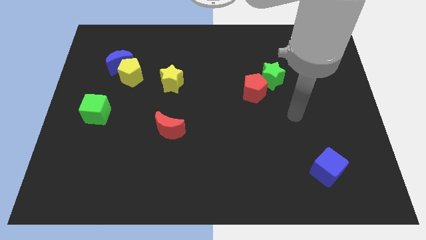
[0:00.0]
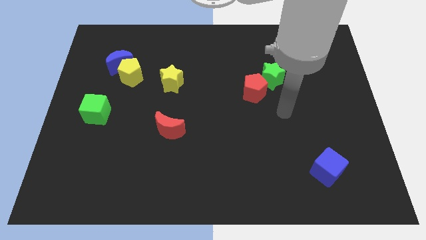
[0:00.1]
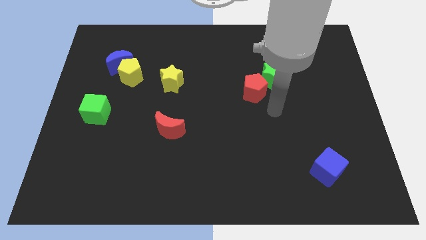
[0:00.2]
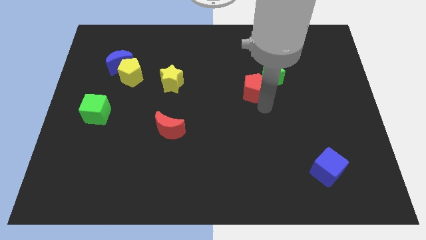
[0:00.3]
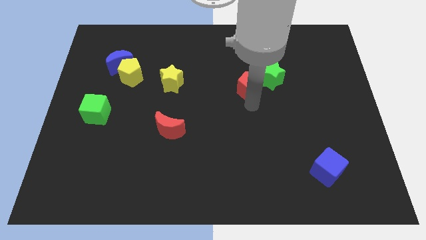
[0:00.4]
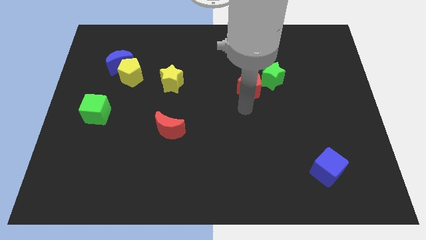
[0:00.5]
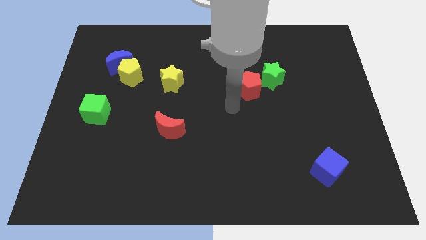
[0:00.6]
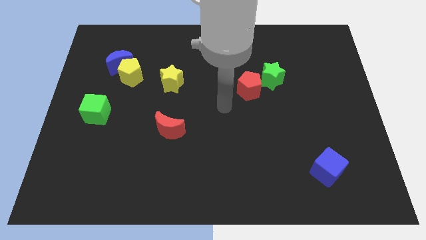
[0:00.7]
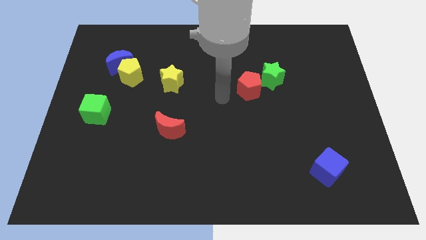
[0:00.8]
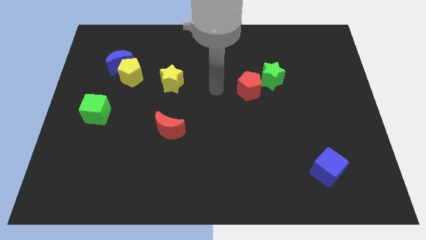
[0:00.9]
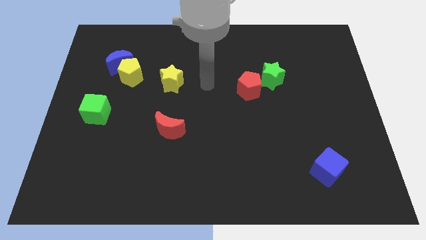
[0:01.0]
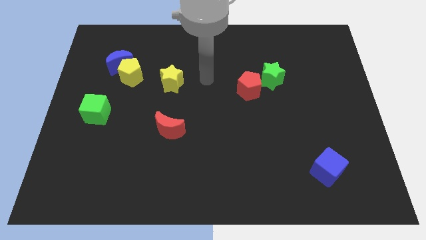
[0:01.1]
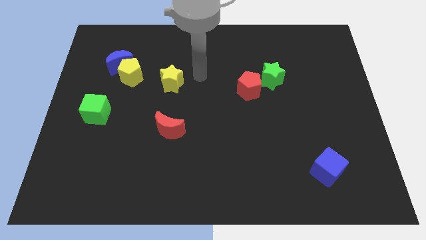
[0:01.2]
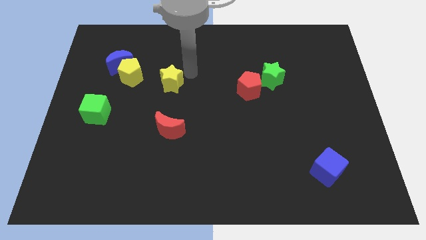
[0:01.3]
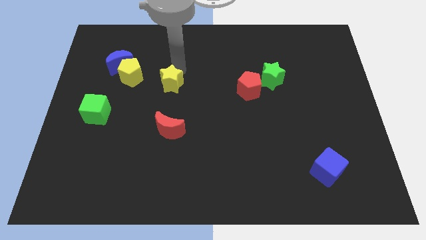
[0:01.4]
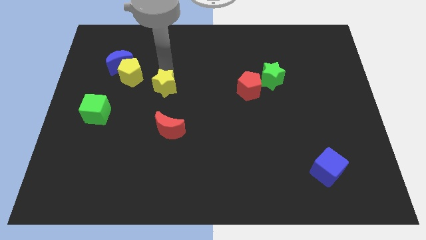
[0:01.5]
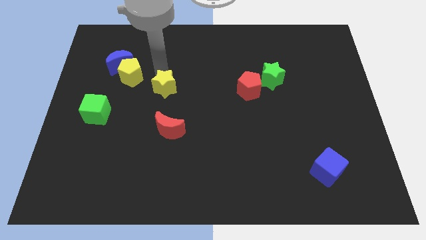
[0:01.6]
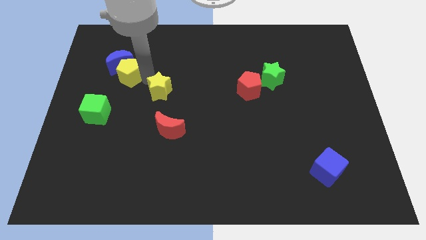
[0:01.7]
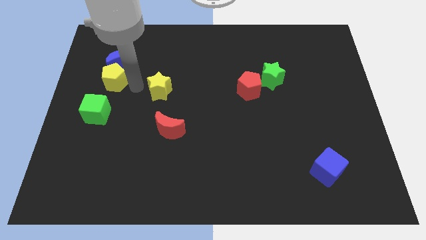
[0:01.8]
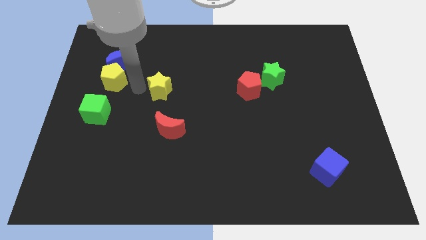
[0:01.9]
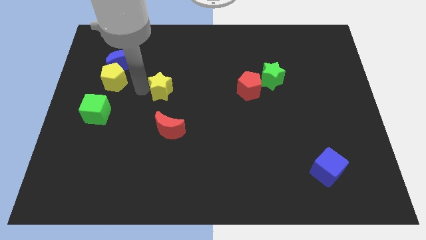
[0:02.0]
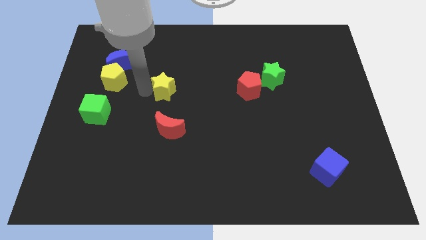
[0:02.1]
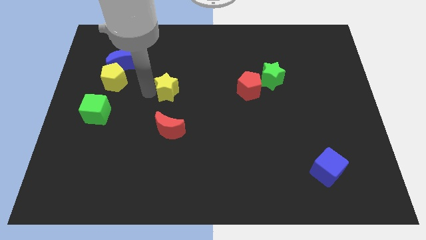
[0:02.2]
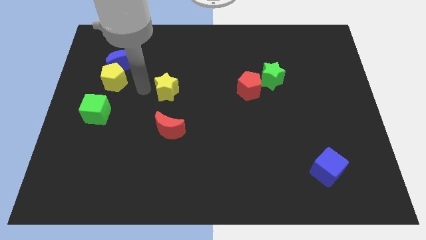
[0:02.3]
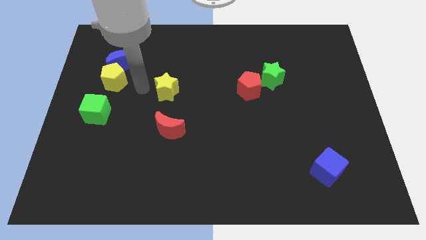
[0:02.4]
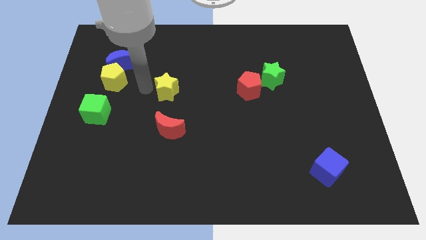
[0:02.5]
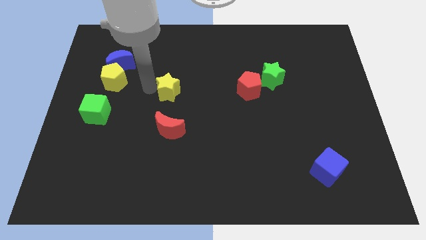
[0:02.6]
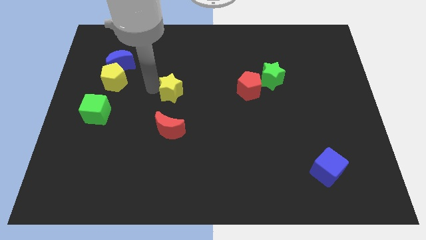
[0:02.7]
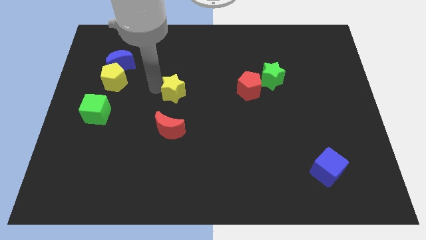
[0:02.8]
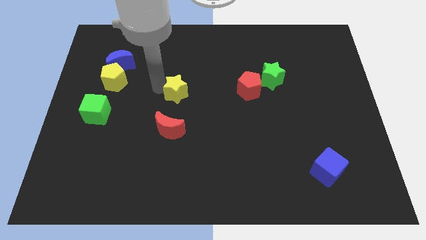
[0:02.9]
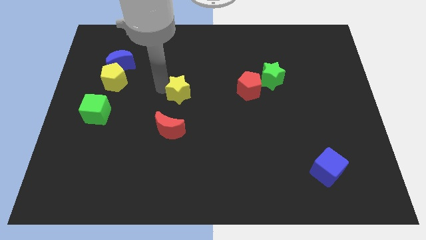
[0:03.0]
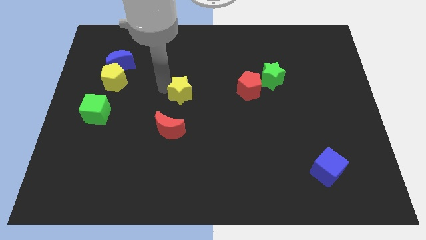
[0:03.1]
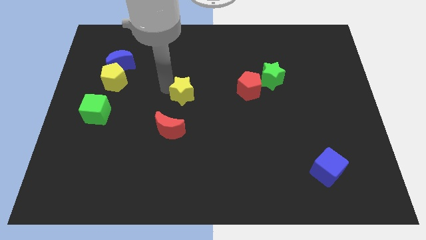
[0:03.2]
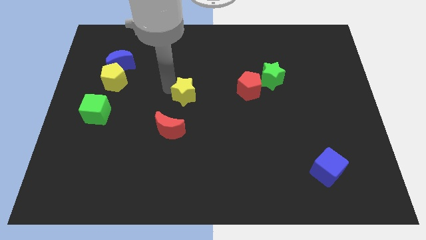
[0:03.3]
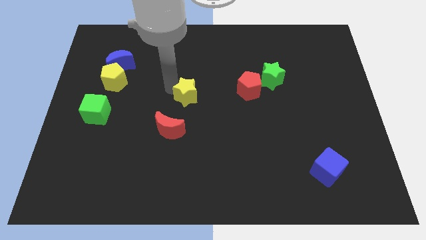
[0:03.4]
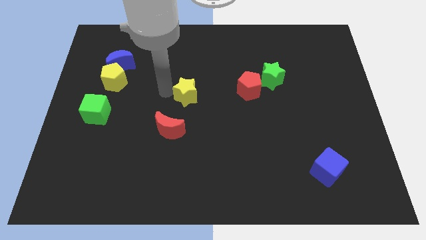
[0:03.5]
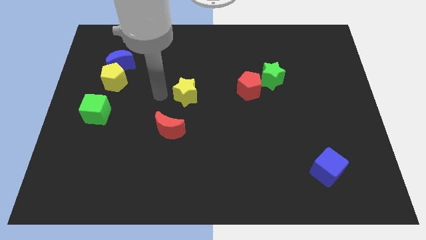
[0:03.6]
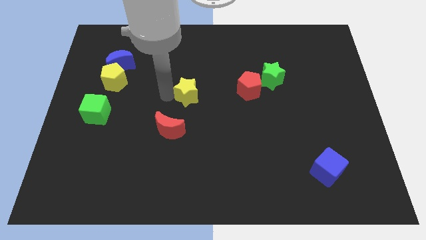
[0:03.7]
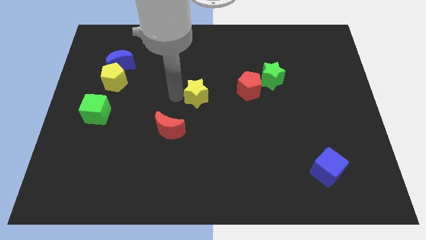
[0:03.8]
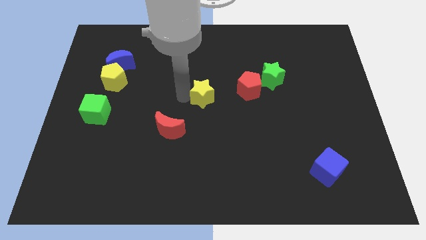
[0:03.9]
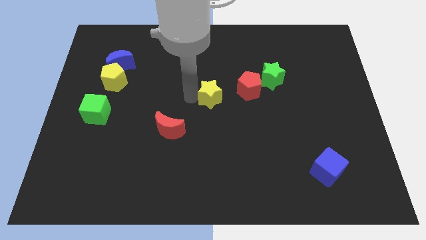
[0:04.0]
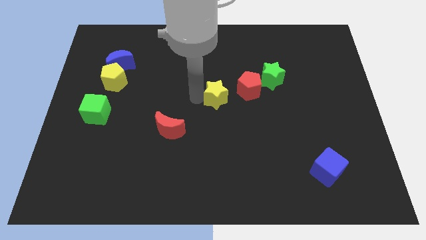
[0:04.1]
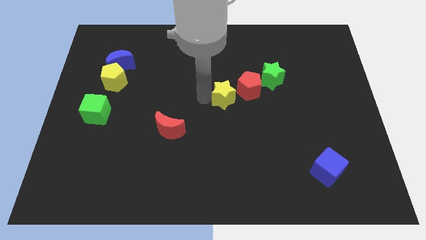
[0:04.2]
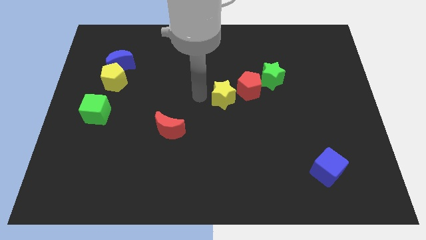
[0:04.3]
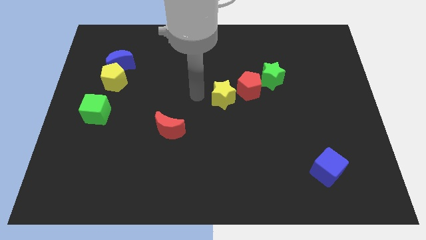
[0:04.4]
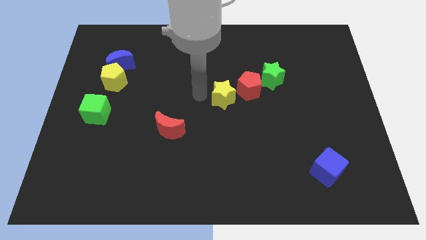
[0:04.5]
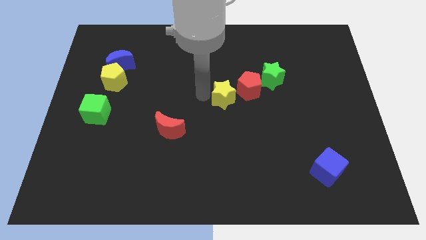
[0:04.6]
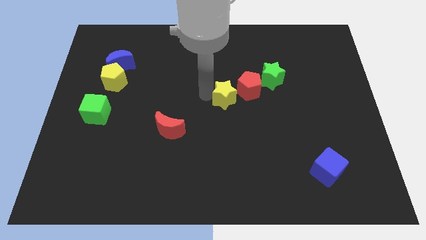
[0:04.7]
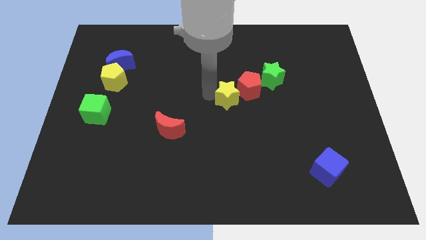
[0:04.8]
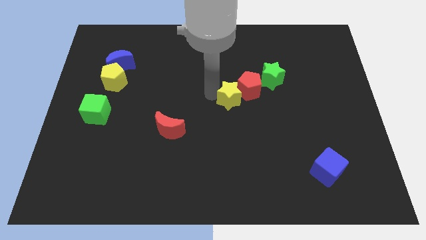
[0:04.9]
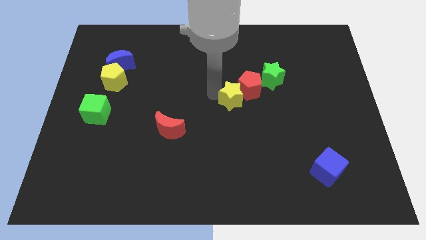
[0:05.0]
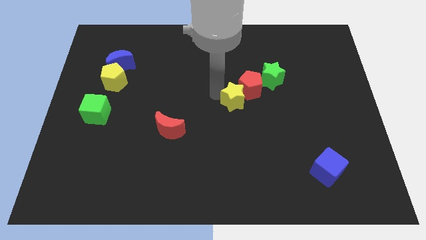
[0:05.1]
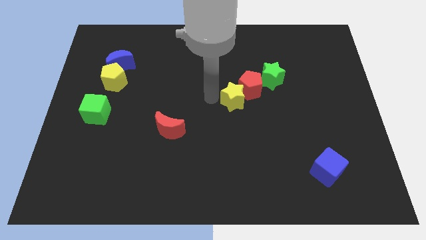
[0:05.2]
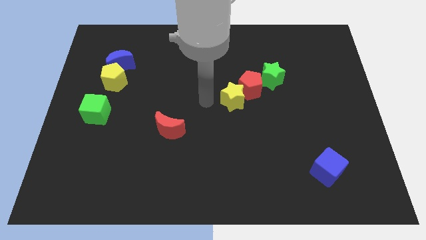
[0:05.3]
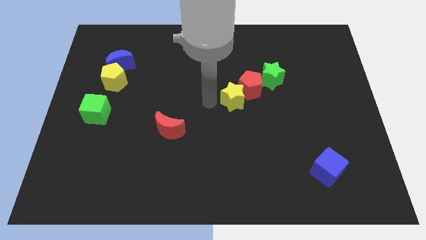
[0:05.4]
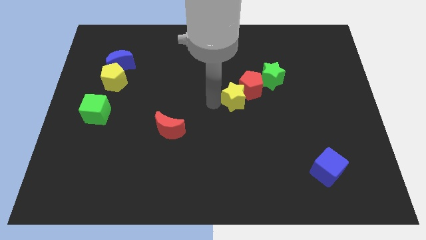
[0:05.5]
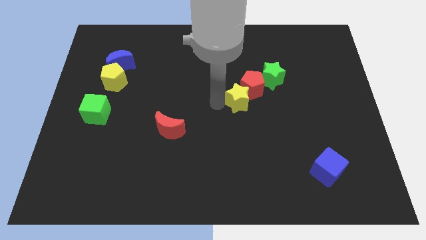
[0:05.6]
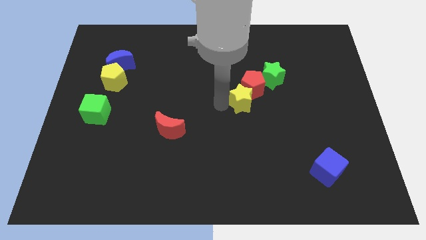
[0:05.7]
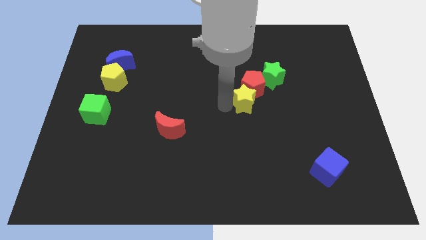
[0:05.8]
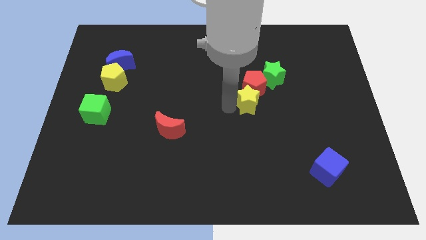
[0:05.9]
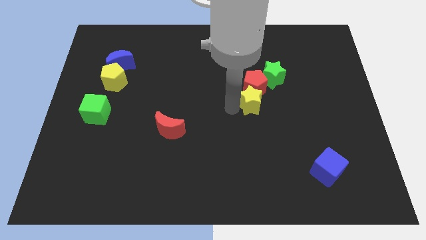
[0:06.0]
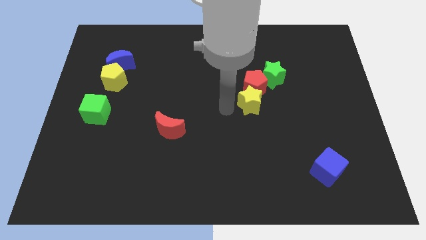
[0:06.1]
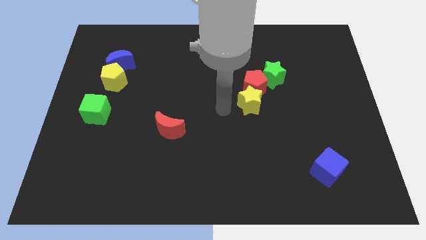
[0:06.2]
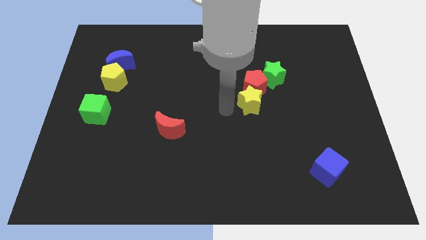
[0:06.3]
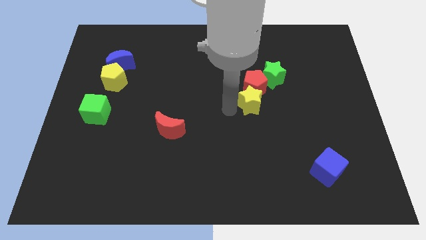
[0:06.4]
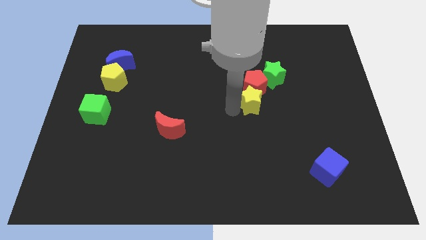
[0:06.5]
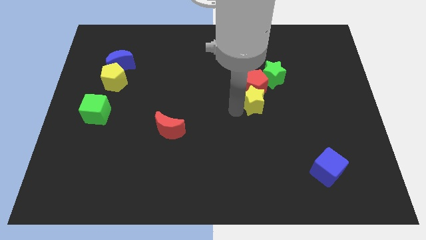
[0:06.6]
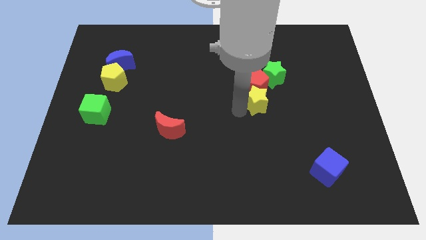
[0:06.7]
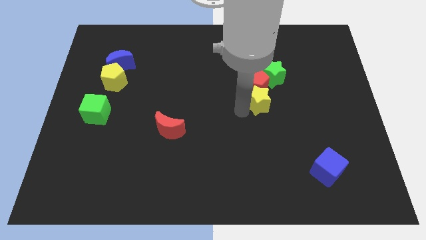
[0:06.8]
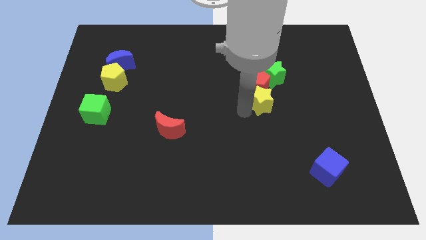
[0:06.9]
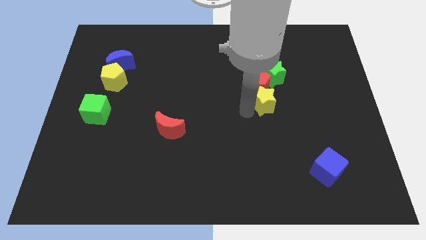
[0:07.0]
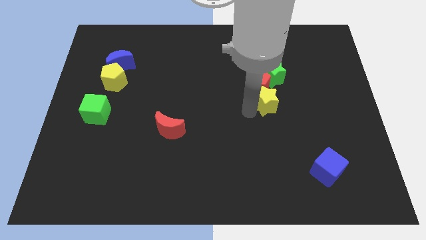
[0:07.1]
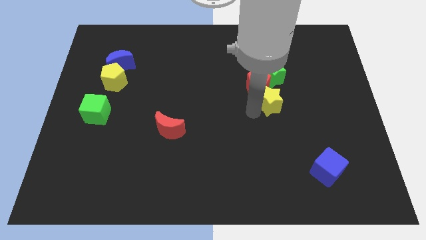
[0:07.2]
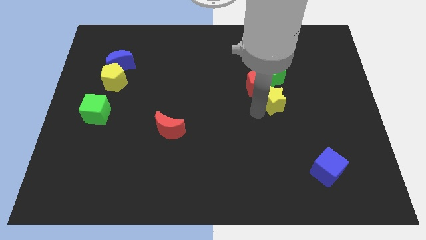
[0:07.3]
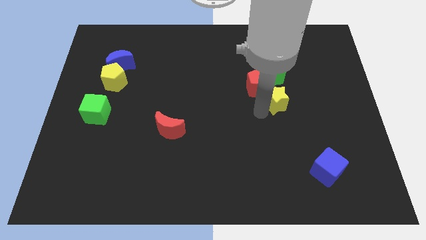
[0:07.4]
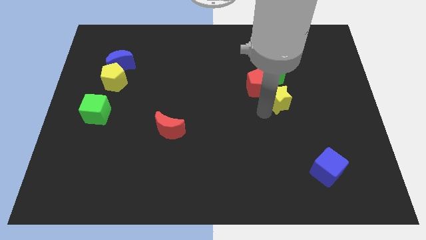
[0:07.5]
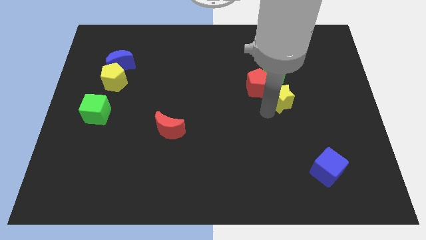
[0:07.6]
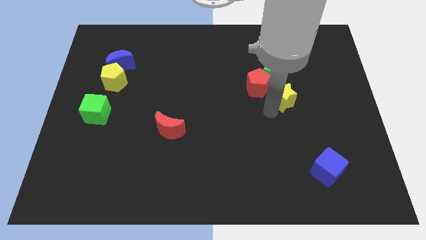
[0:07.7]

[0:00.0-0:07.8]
slide the yellow star diagonally down and to the right of the green star
